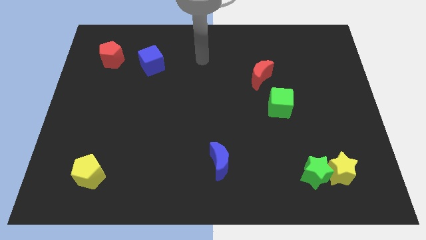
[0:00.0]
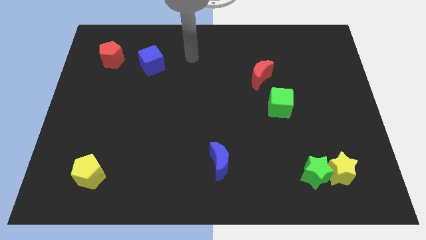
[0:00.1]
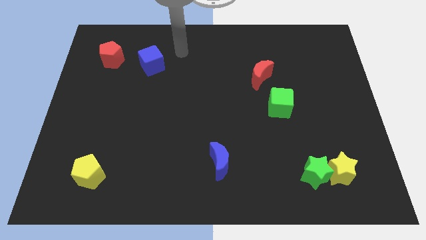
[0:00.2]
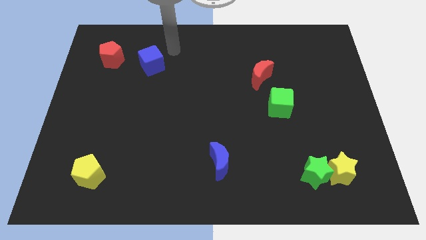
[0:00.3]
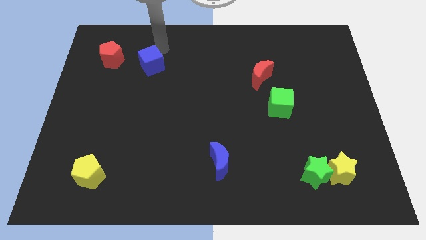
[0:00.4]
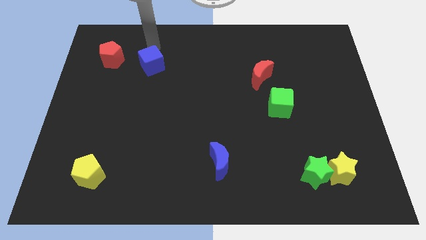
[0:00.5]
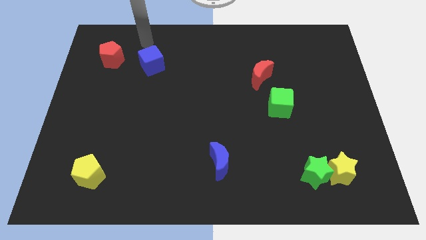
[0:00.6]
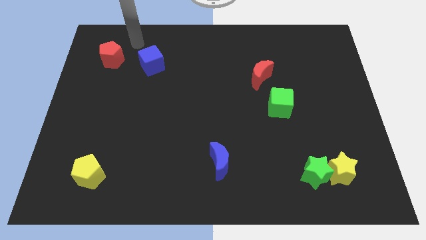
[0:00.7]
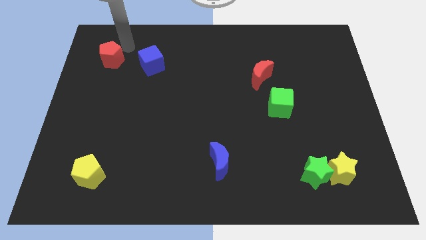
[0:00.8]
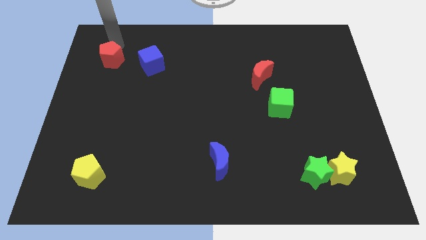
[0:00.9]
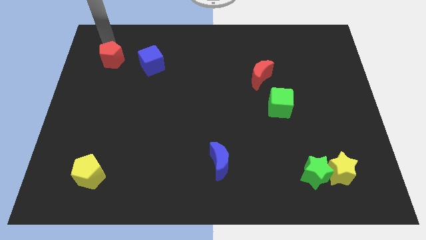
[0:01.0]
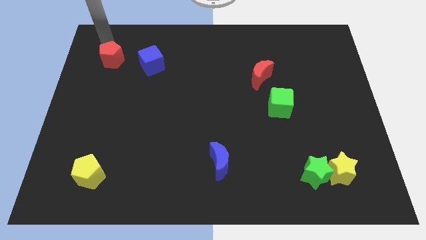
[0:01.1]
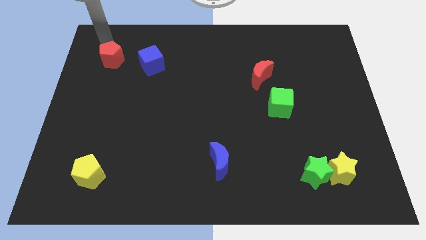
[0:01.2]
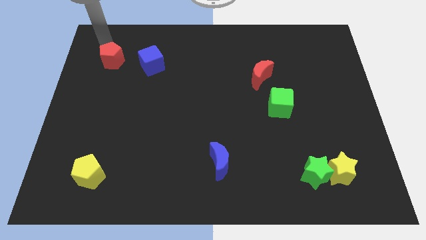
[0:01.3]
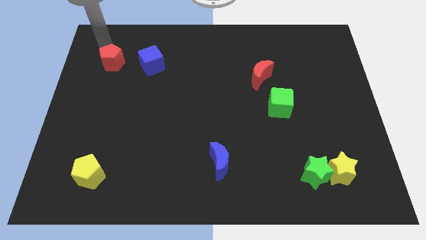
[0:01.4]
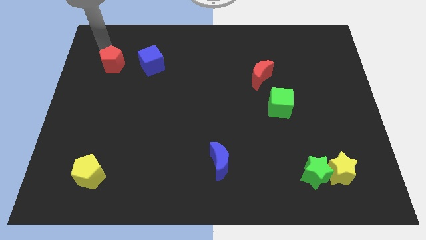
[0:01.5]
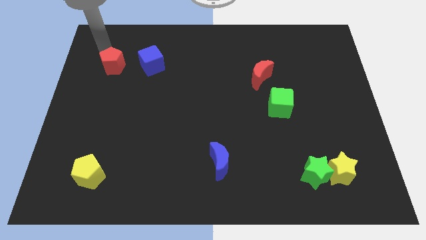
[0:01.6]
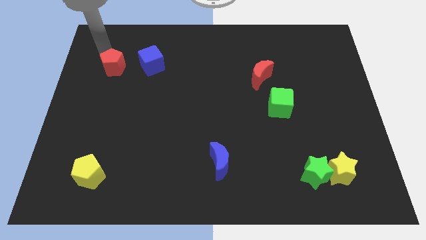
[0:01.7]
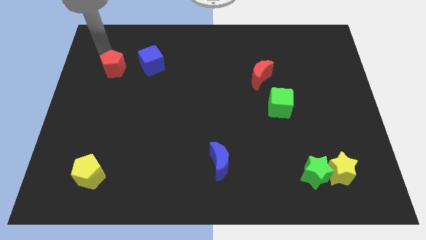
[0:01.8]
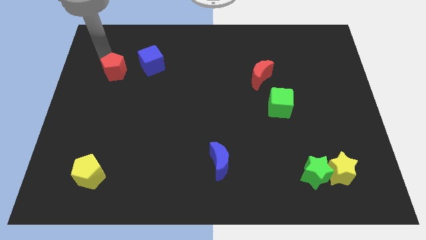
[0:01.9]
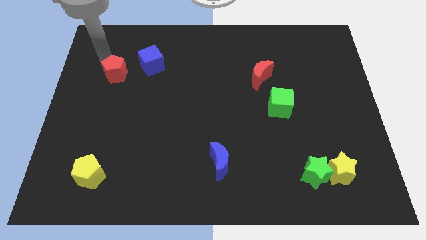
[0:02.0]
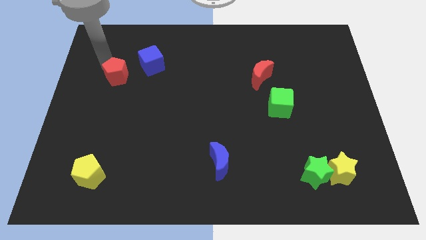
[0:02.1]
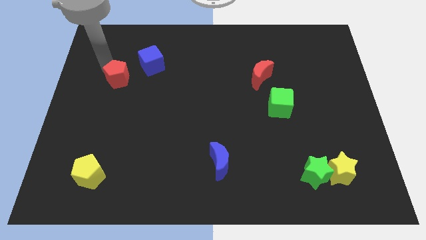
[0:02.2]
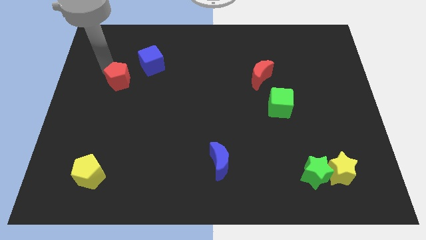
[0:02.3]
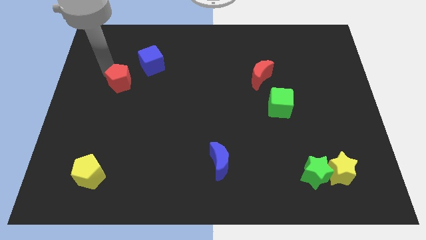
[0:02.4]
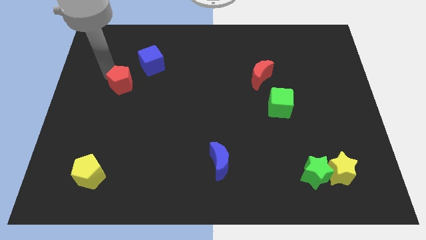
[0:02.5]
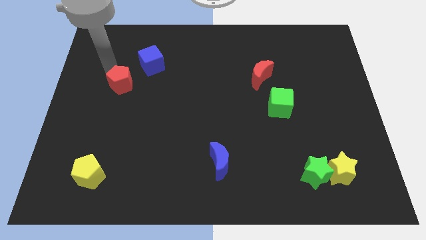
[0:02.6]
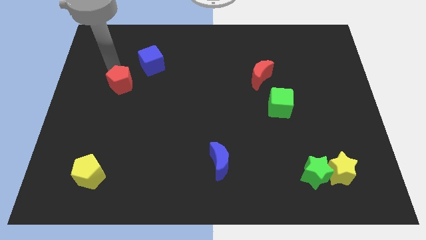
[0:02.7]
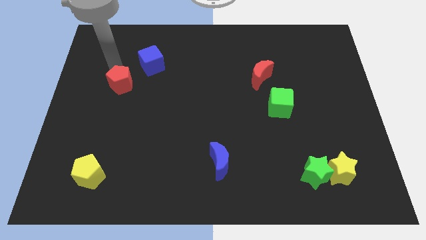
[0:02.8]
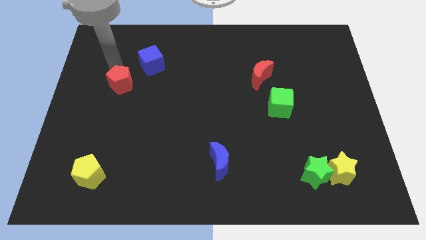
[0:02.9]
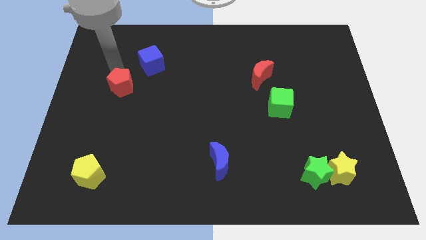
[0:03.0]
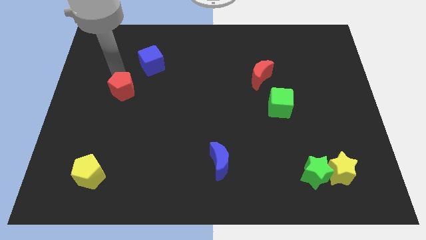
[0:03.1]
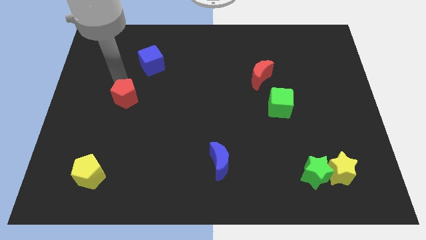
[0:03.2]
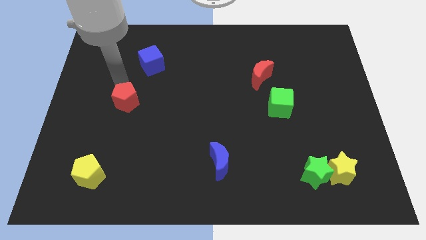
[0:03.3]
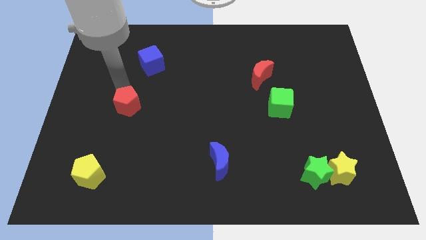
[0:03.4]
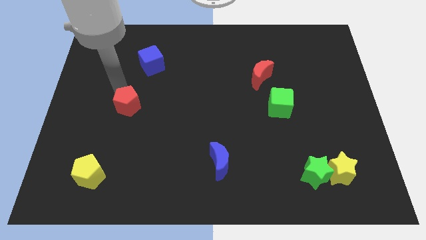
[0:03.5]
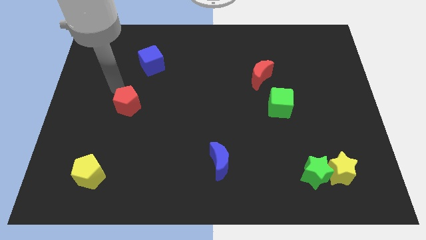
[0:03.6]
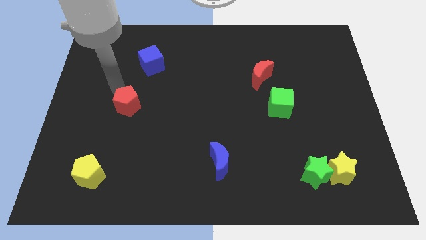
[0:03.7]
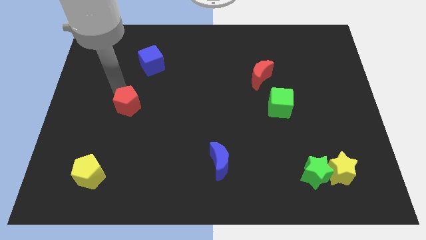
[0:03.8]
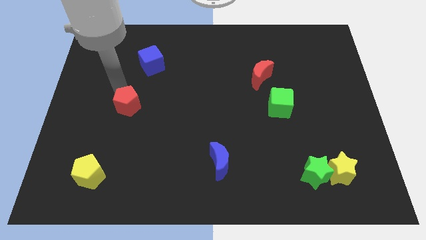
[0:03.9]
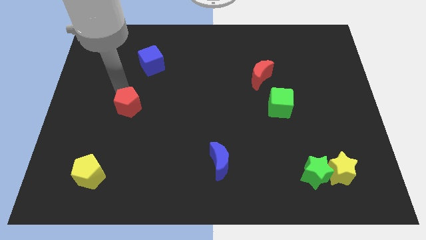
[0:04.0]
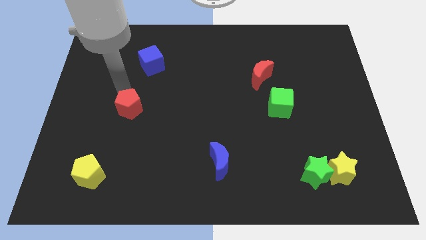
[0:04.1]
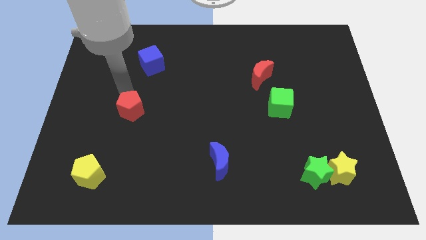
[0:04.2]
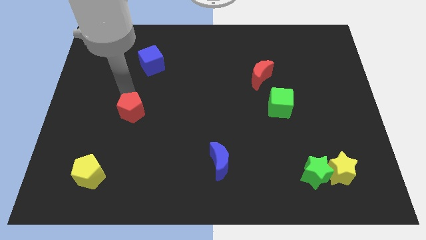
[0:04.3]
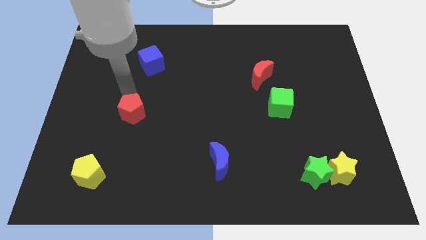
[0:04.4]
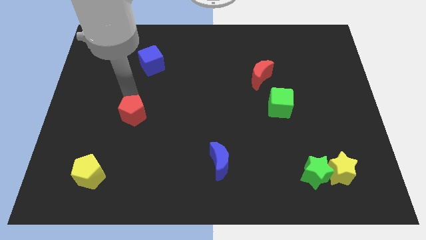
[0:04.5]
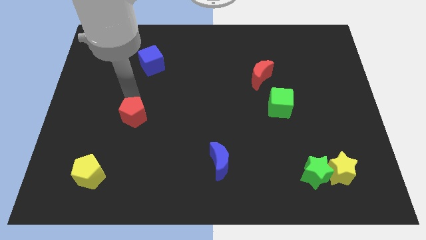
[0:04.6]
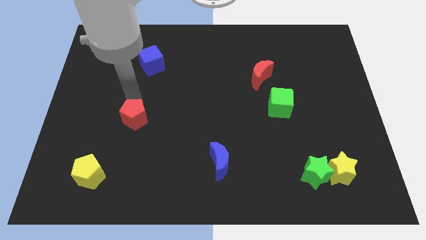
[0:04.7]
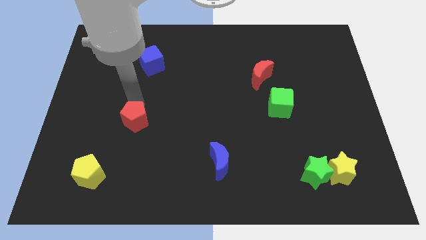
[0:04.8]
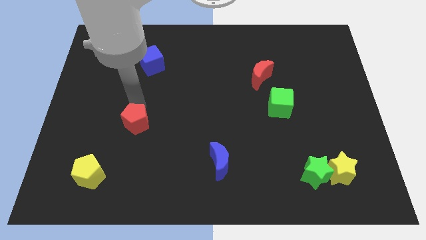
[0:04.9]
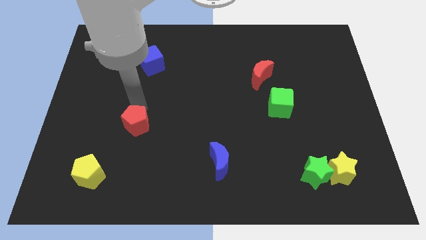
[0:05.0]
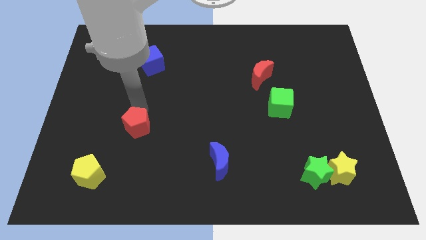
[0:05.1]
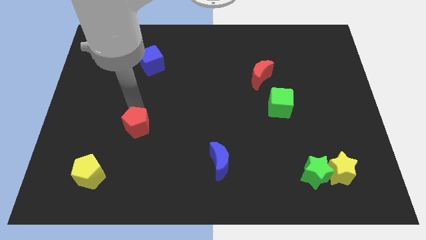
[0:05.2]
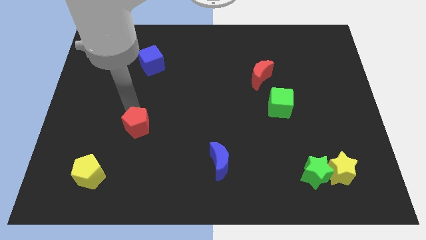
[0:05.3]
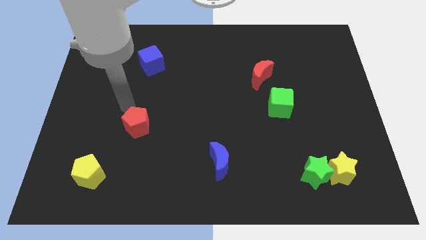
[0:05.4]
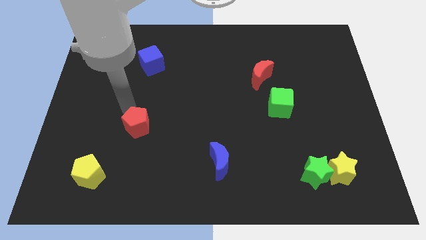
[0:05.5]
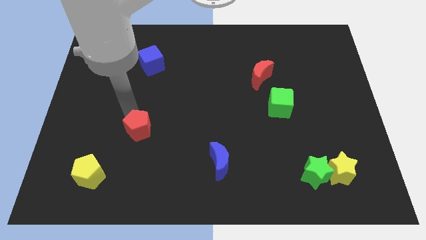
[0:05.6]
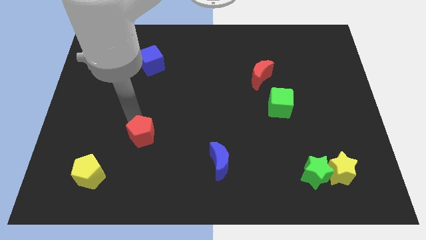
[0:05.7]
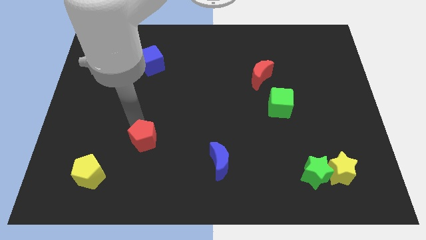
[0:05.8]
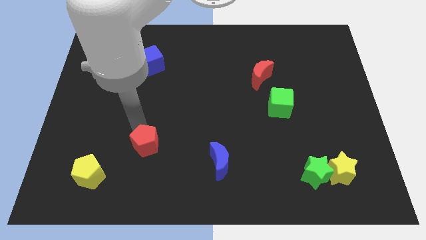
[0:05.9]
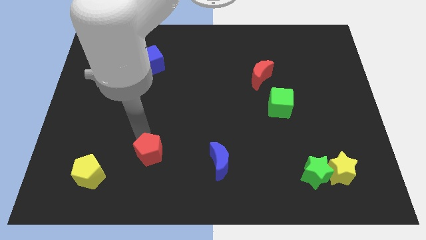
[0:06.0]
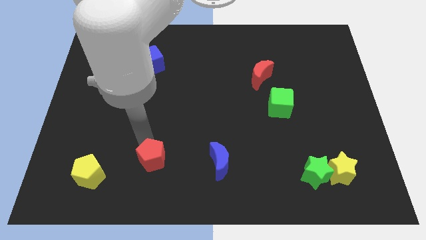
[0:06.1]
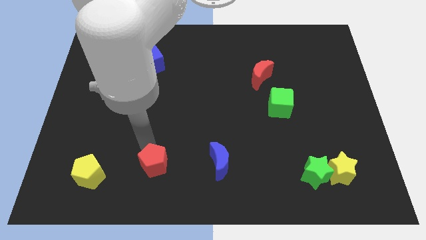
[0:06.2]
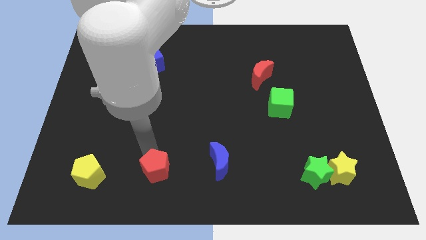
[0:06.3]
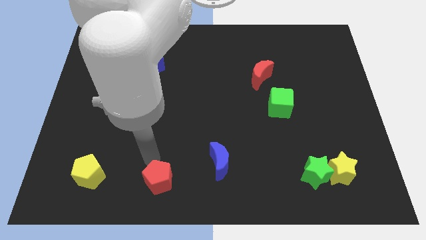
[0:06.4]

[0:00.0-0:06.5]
push the red pentagon to the bottom

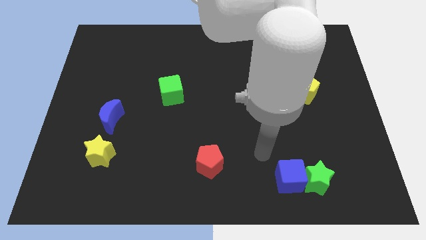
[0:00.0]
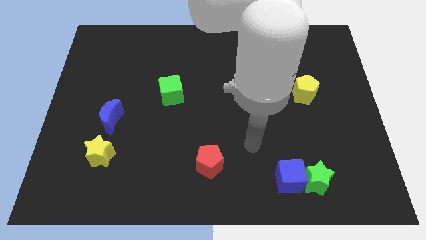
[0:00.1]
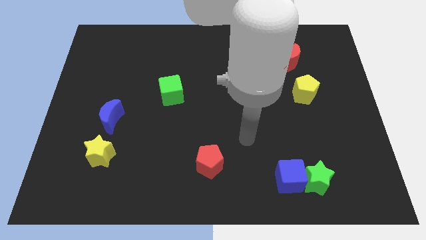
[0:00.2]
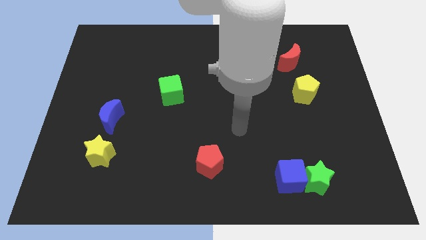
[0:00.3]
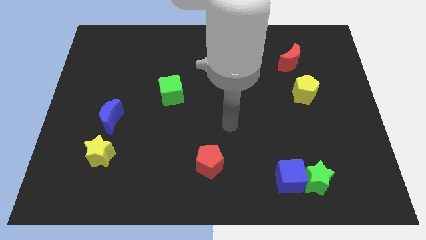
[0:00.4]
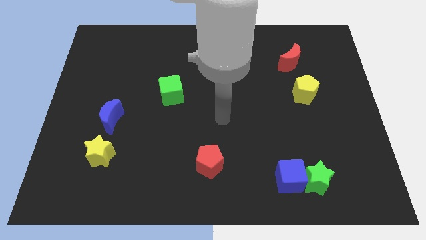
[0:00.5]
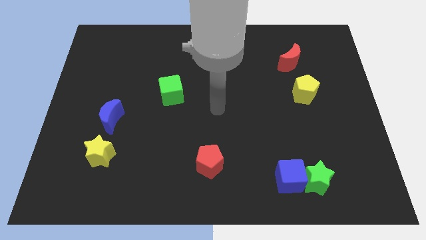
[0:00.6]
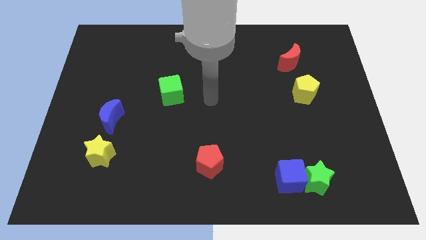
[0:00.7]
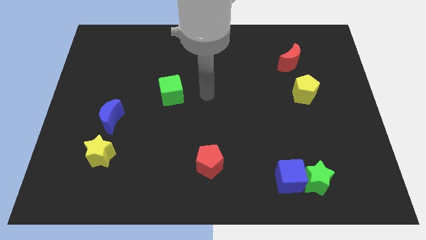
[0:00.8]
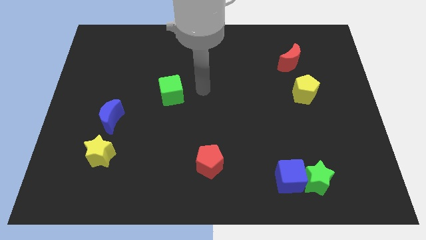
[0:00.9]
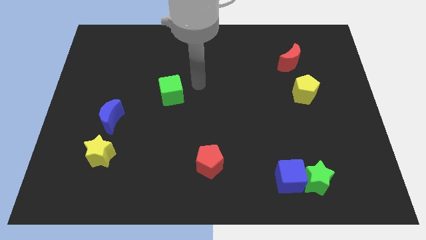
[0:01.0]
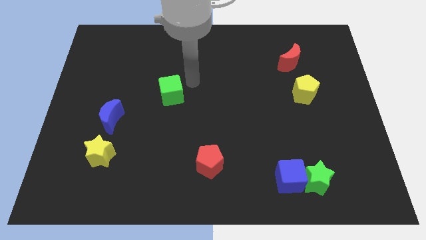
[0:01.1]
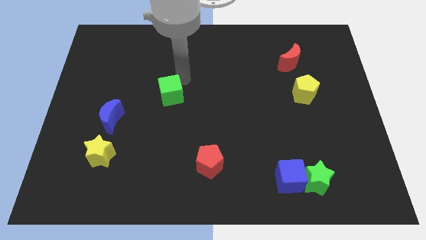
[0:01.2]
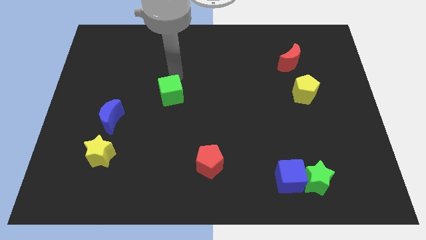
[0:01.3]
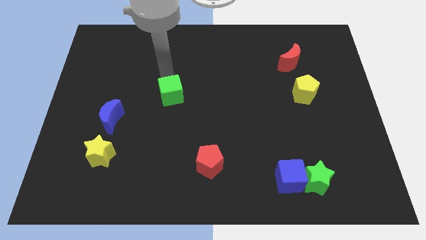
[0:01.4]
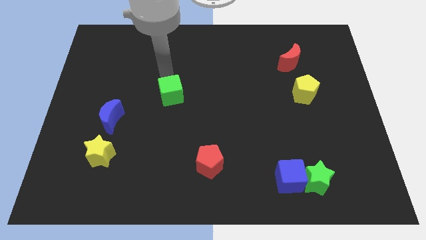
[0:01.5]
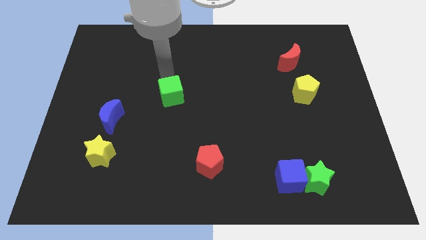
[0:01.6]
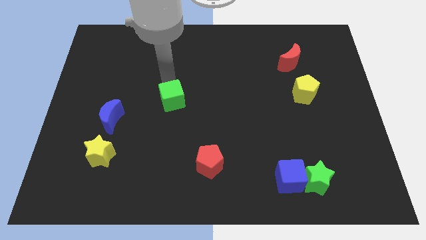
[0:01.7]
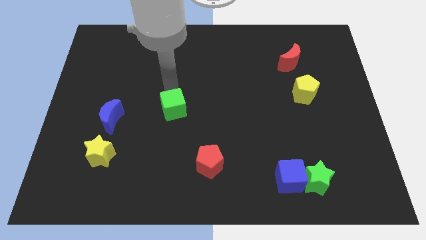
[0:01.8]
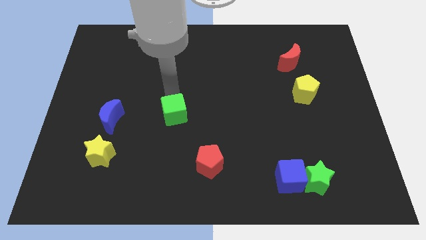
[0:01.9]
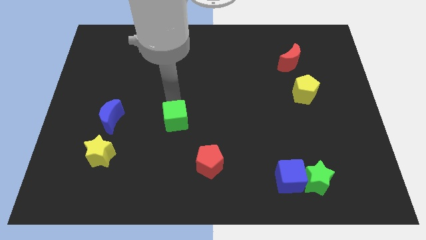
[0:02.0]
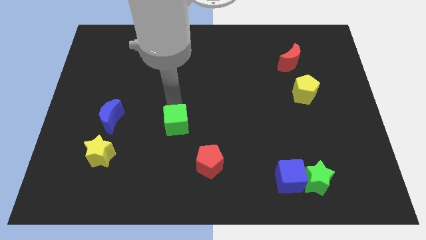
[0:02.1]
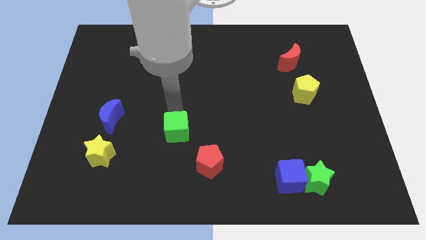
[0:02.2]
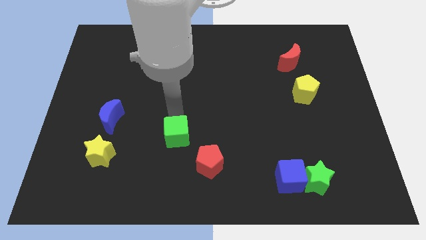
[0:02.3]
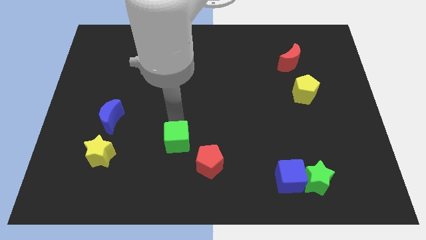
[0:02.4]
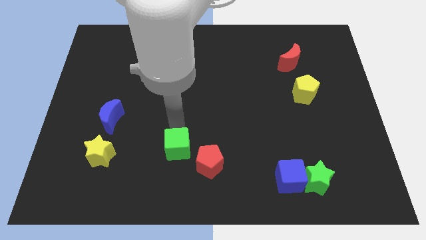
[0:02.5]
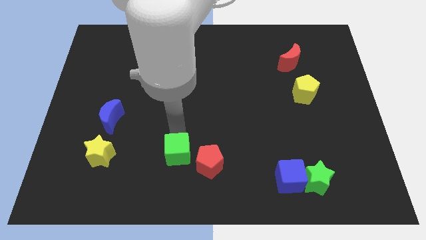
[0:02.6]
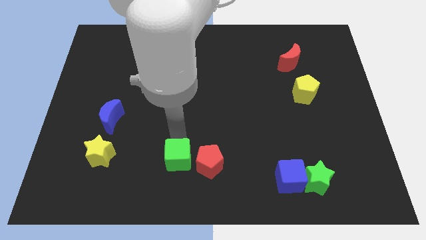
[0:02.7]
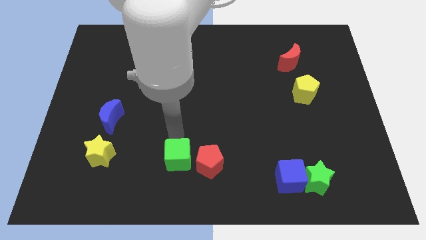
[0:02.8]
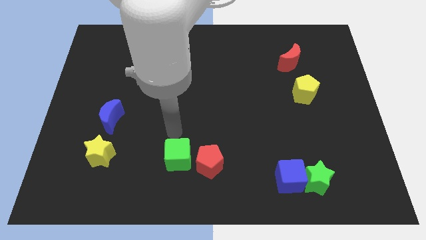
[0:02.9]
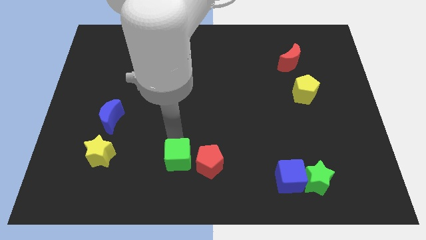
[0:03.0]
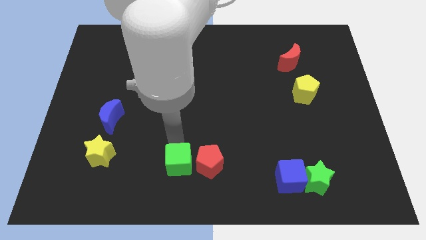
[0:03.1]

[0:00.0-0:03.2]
push the green cube to the bottom side
